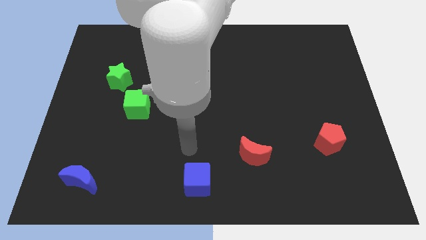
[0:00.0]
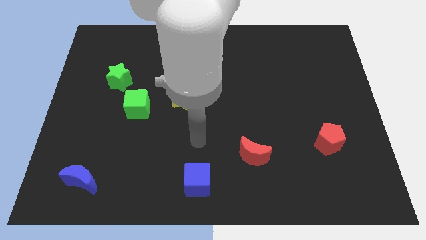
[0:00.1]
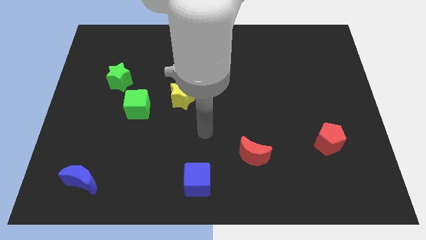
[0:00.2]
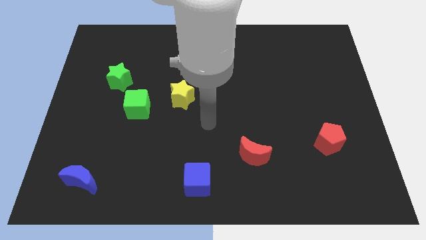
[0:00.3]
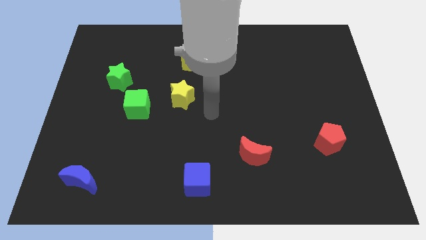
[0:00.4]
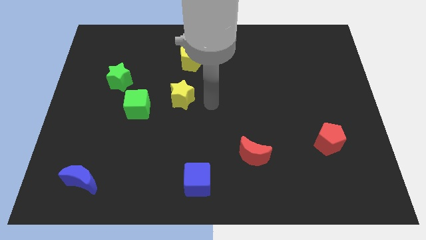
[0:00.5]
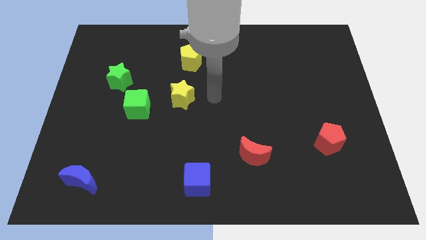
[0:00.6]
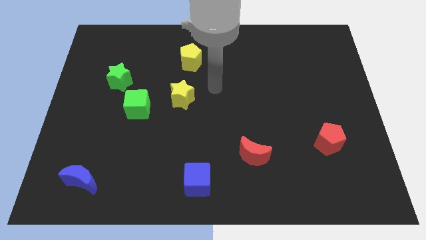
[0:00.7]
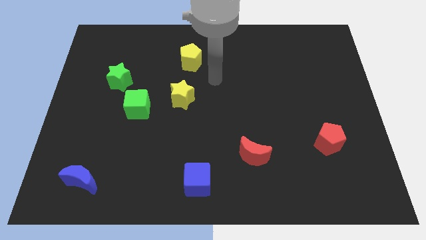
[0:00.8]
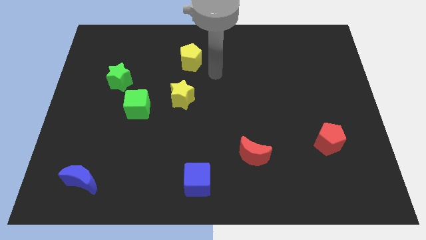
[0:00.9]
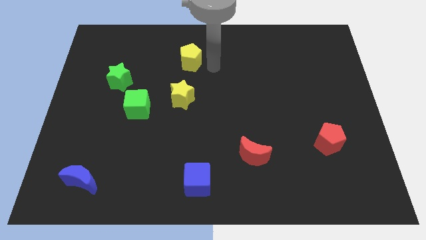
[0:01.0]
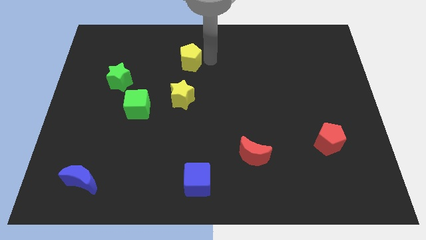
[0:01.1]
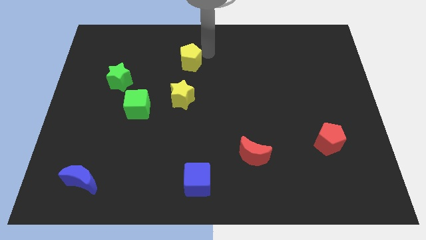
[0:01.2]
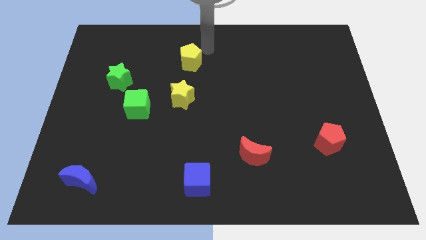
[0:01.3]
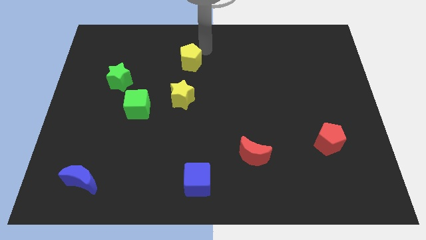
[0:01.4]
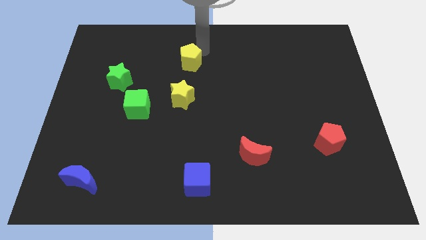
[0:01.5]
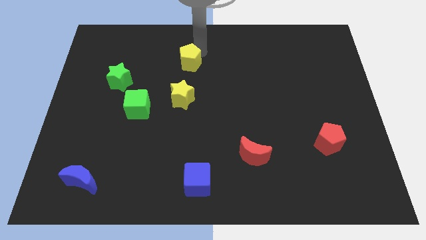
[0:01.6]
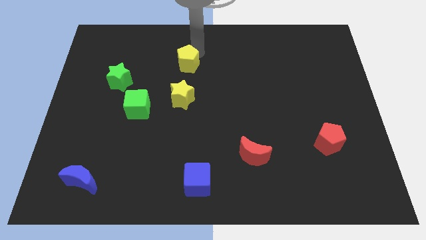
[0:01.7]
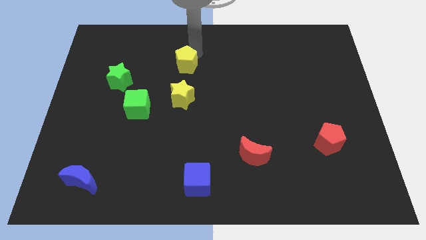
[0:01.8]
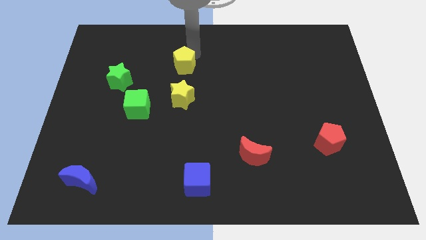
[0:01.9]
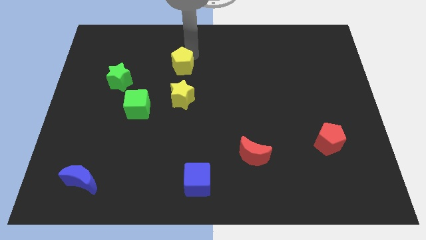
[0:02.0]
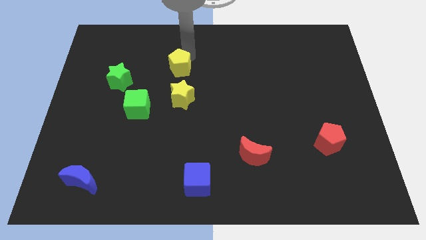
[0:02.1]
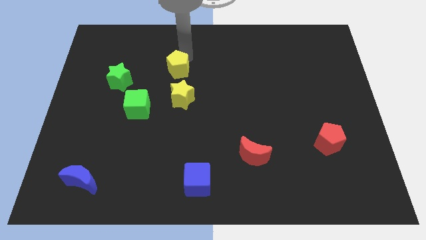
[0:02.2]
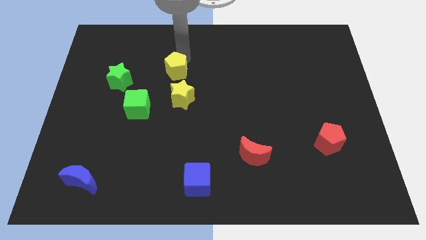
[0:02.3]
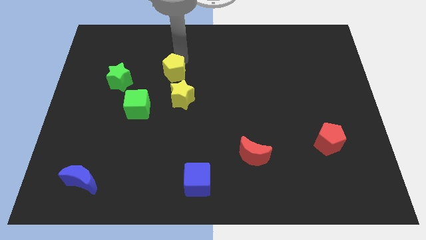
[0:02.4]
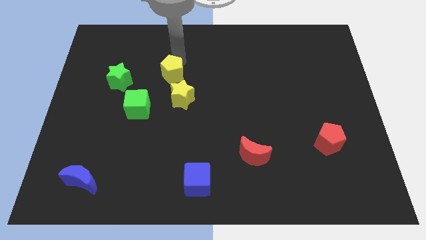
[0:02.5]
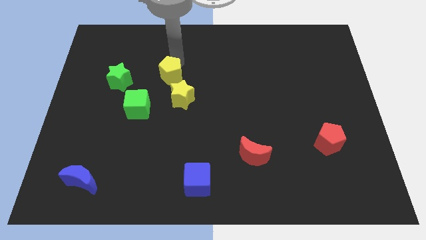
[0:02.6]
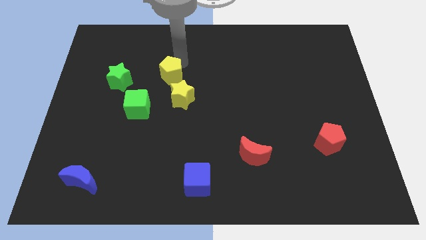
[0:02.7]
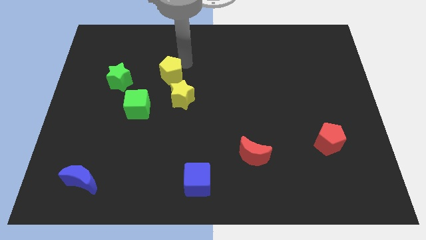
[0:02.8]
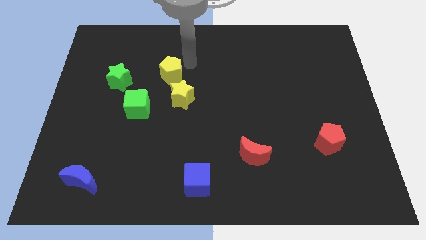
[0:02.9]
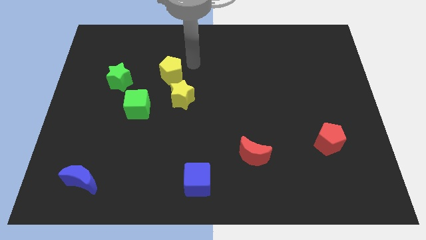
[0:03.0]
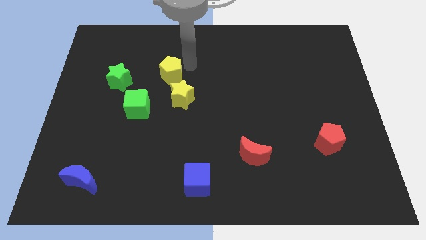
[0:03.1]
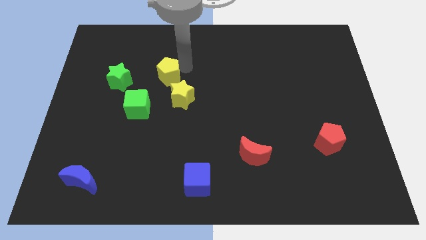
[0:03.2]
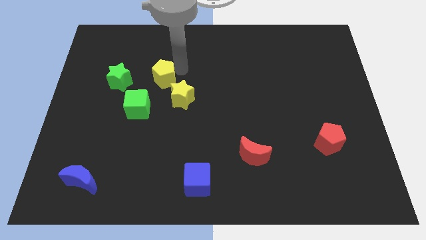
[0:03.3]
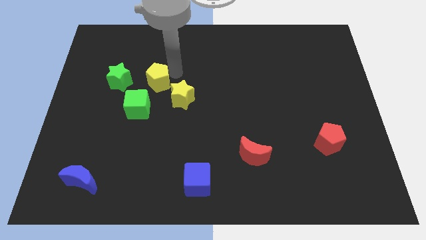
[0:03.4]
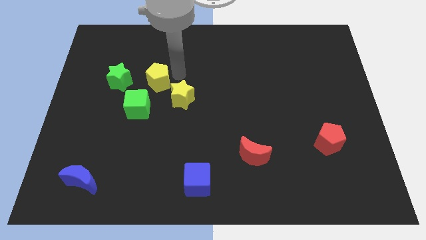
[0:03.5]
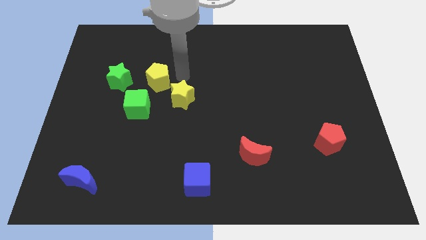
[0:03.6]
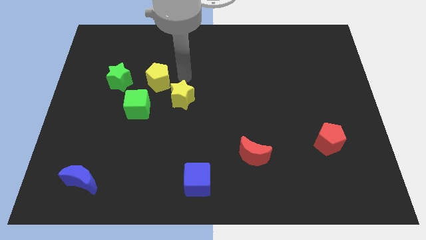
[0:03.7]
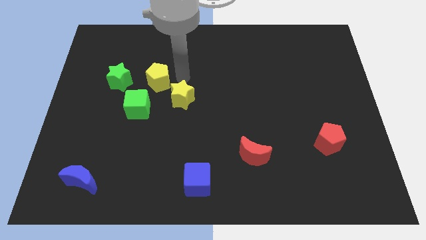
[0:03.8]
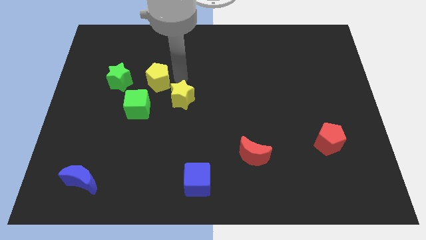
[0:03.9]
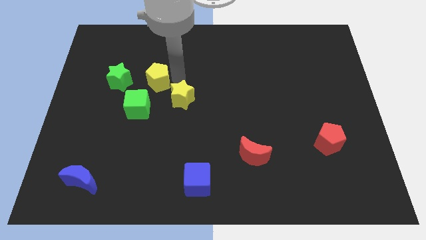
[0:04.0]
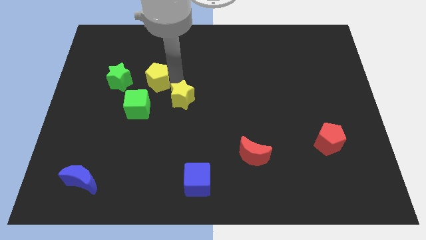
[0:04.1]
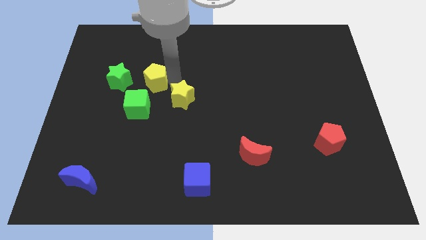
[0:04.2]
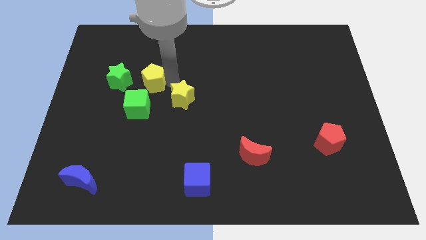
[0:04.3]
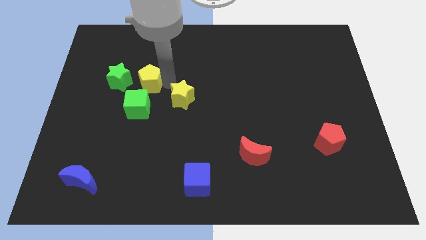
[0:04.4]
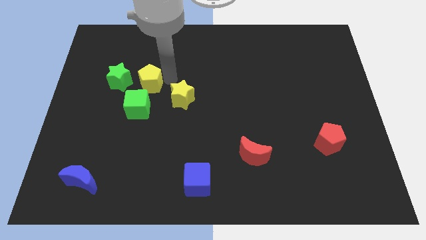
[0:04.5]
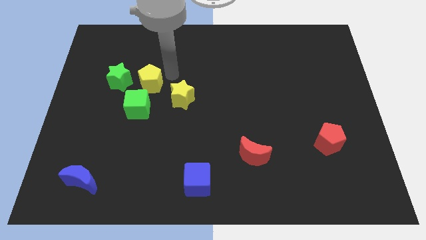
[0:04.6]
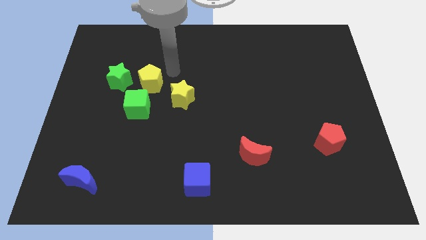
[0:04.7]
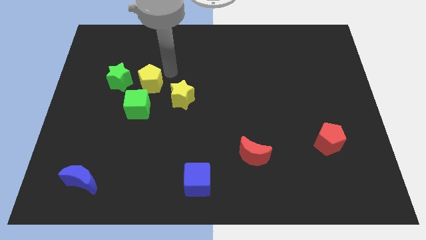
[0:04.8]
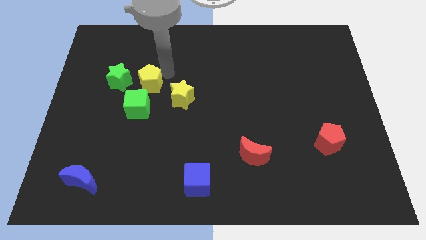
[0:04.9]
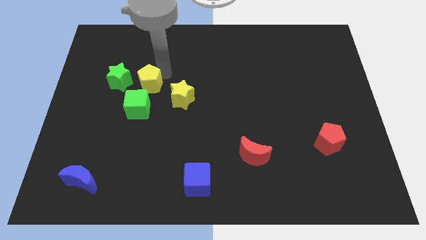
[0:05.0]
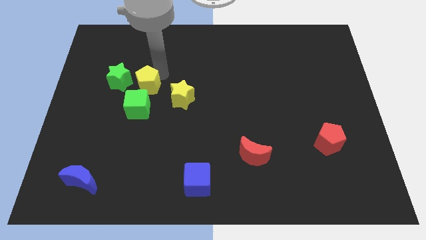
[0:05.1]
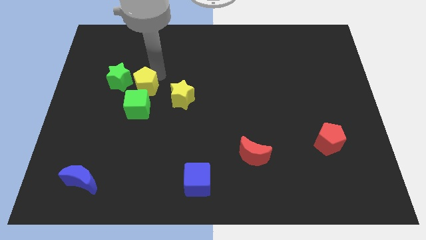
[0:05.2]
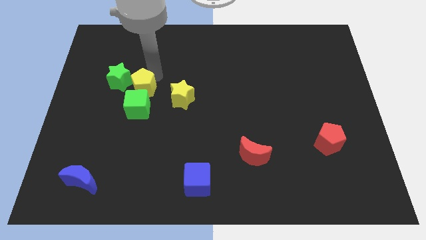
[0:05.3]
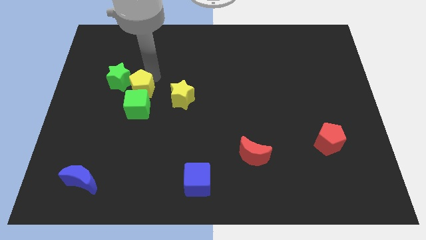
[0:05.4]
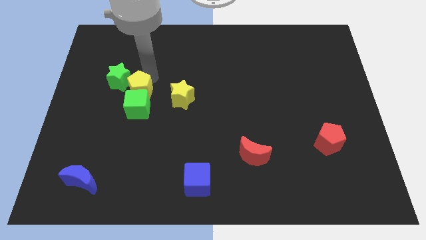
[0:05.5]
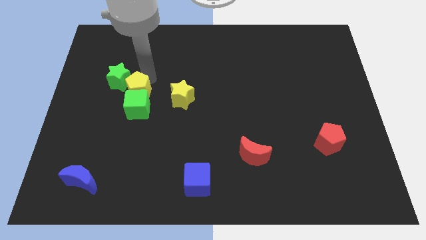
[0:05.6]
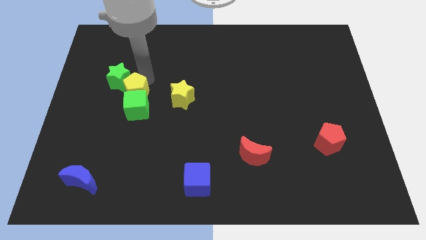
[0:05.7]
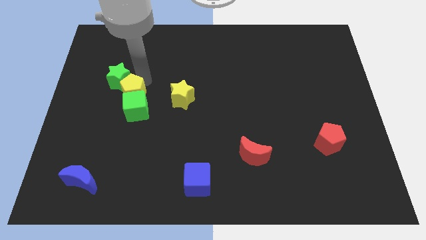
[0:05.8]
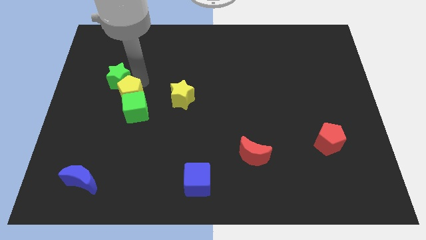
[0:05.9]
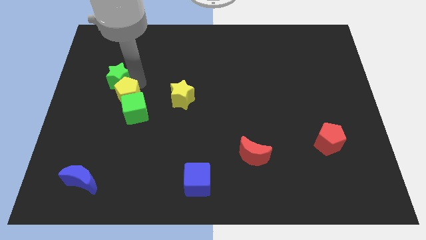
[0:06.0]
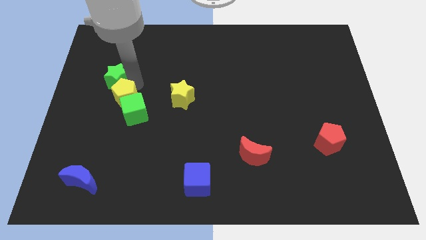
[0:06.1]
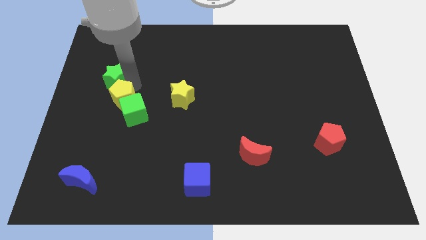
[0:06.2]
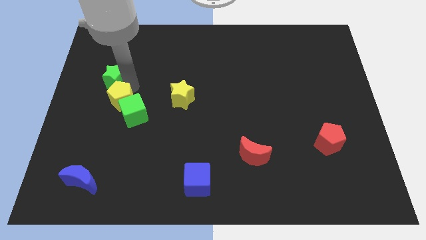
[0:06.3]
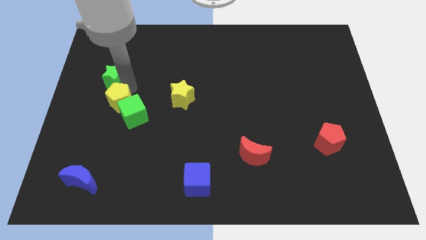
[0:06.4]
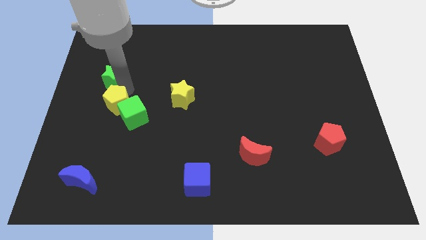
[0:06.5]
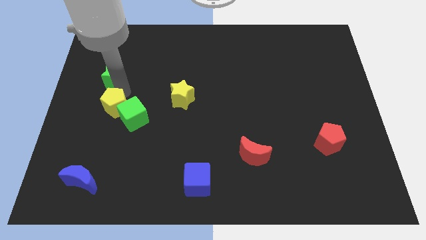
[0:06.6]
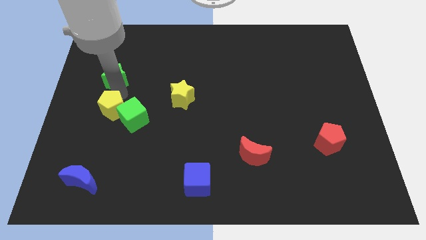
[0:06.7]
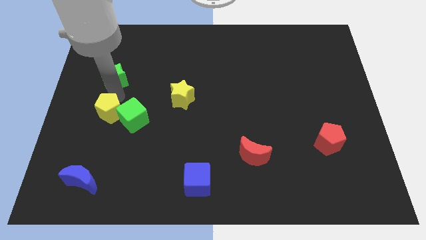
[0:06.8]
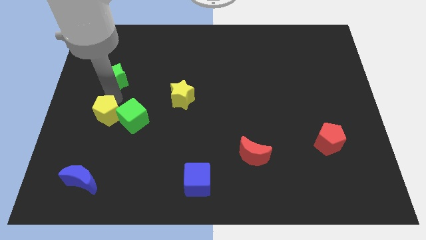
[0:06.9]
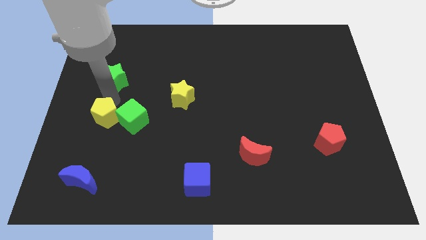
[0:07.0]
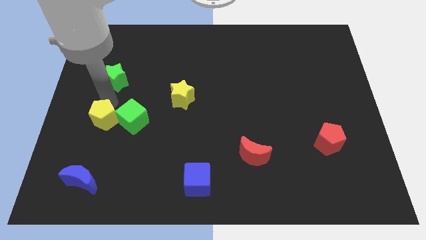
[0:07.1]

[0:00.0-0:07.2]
push the yellow pentagon to the bottom left side of the green cube
